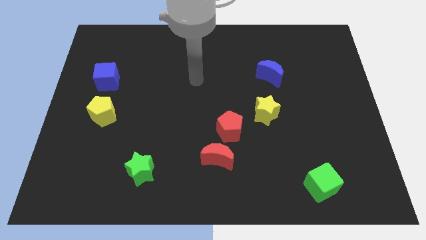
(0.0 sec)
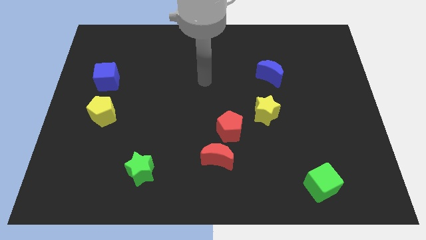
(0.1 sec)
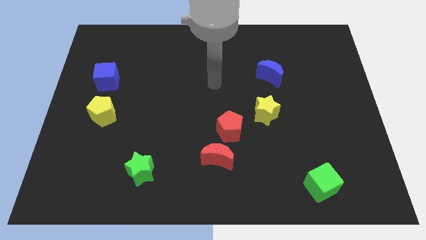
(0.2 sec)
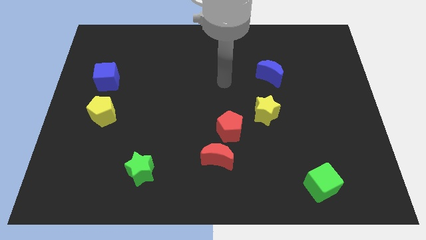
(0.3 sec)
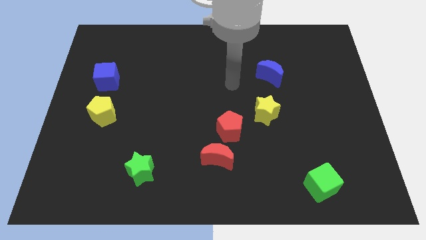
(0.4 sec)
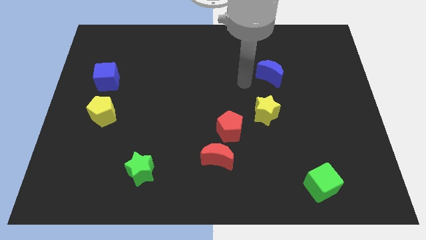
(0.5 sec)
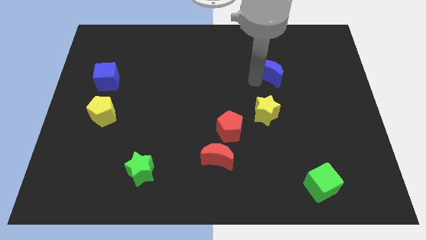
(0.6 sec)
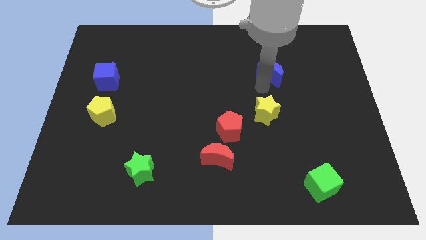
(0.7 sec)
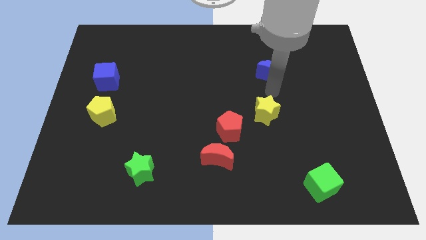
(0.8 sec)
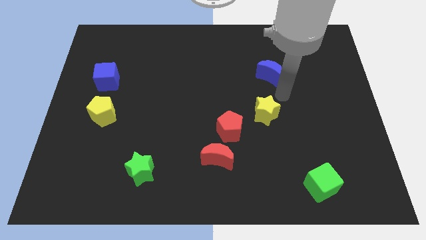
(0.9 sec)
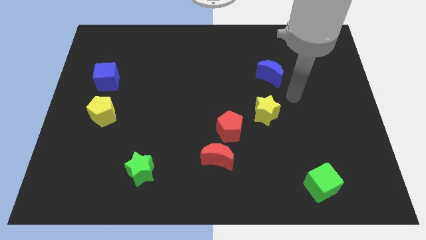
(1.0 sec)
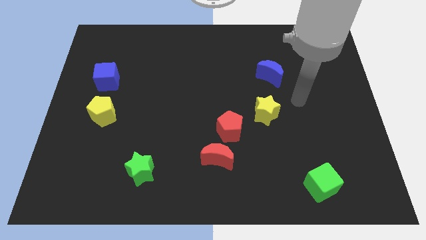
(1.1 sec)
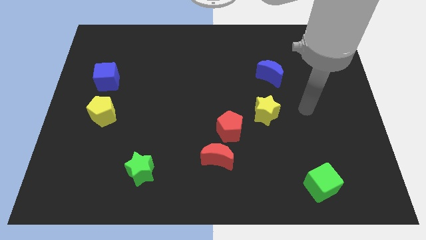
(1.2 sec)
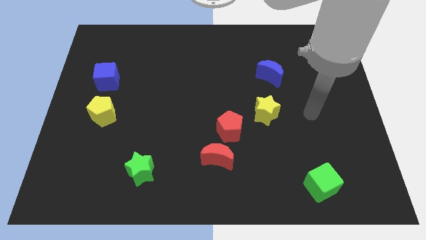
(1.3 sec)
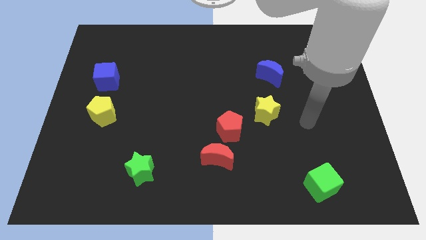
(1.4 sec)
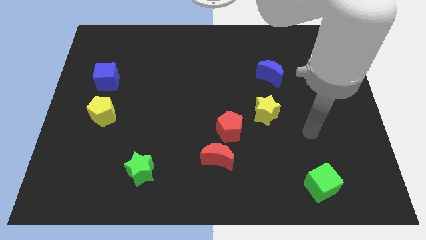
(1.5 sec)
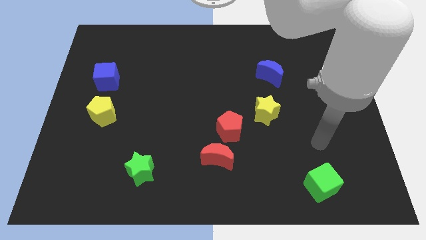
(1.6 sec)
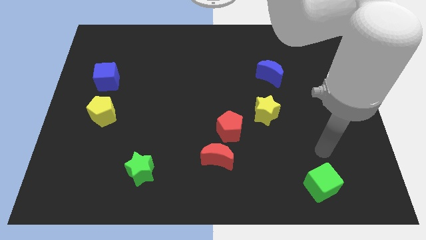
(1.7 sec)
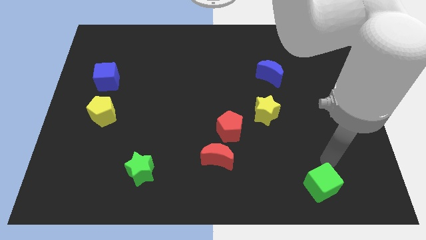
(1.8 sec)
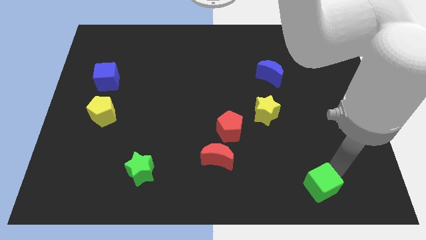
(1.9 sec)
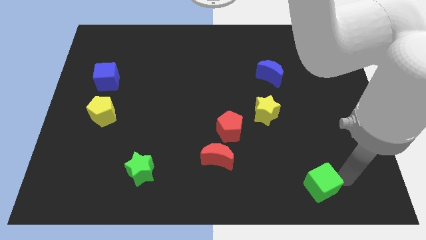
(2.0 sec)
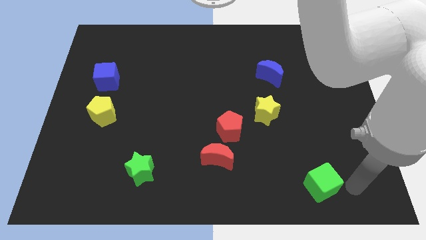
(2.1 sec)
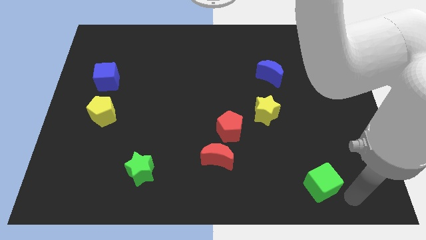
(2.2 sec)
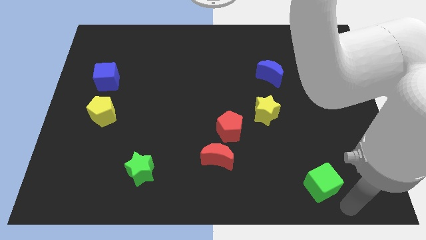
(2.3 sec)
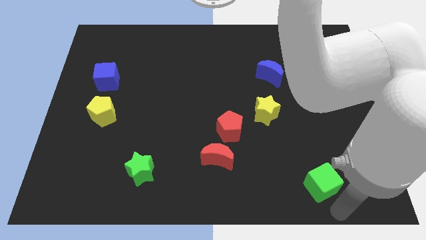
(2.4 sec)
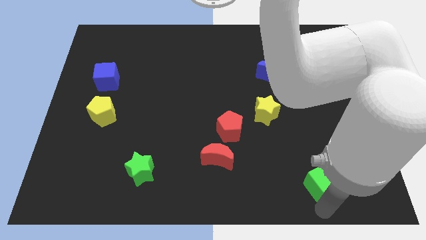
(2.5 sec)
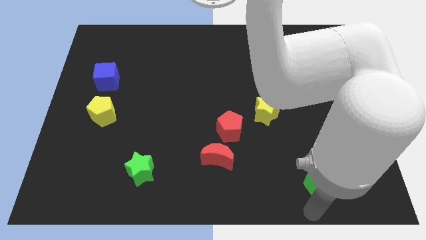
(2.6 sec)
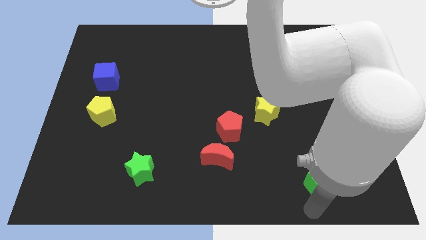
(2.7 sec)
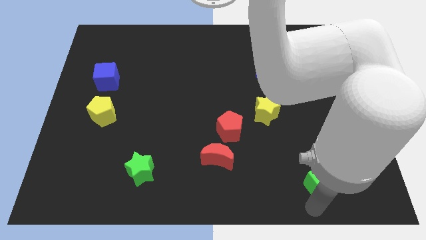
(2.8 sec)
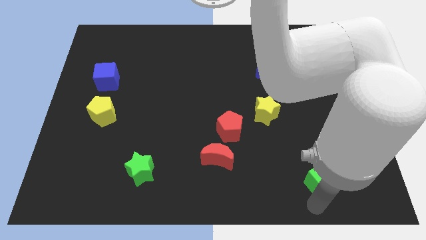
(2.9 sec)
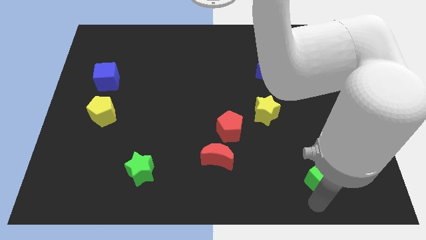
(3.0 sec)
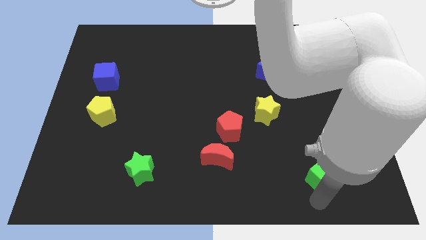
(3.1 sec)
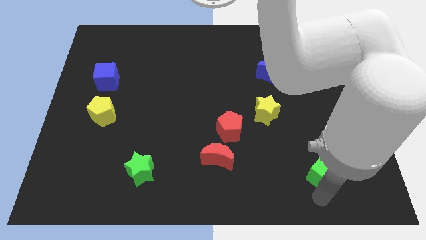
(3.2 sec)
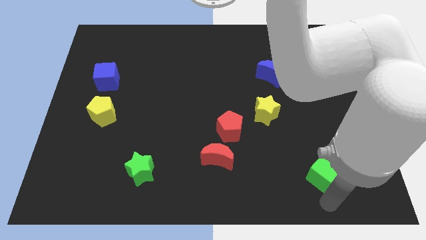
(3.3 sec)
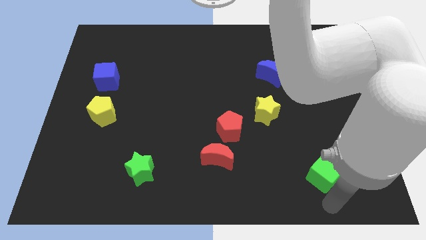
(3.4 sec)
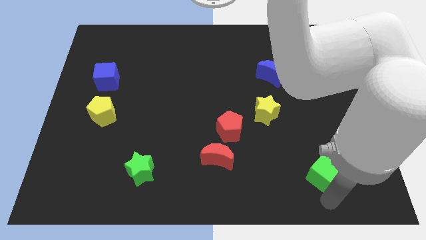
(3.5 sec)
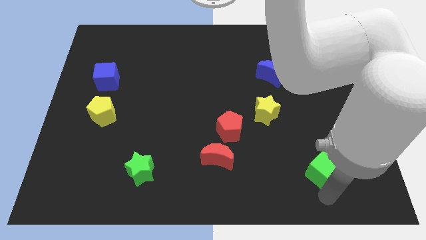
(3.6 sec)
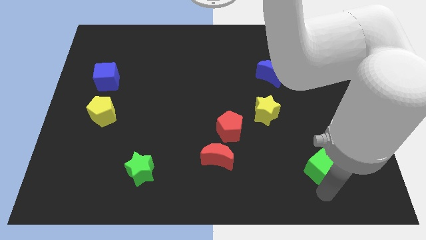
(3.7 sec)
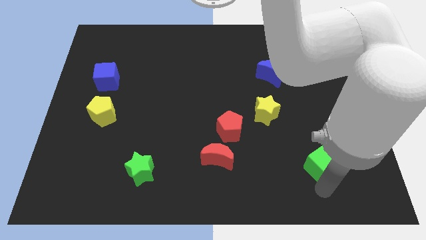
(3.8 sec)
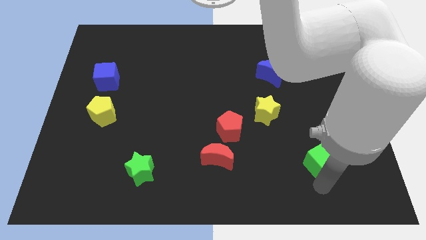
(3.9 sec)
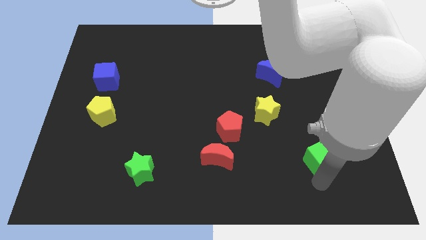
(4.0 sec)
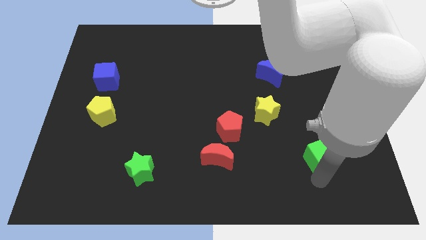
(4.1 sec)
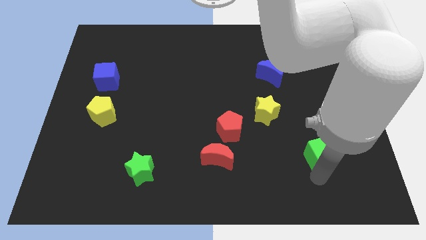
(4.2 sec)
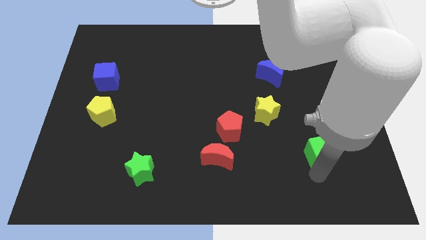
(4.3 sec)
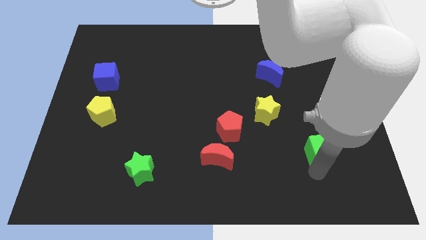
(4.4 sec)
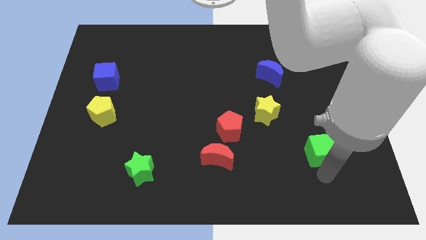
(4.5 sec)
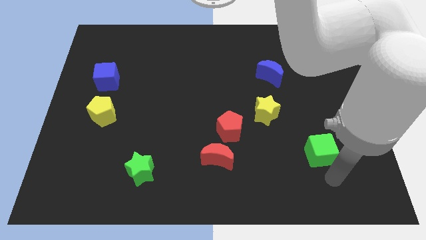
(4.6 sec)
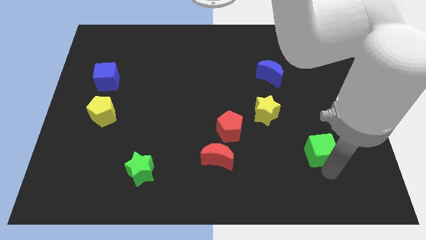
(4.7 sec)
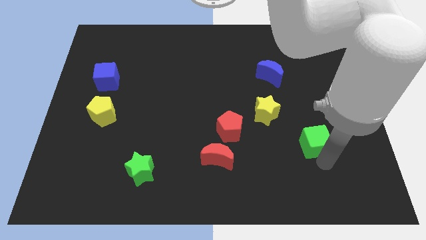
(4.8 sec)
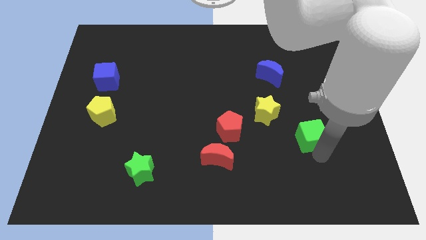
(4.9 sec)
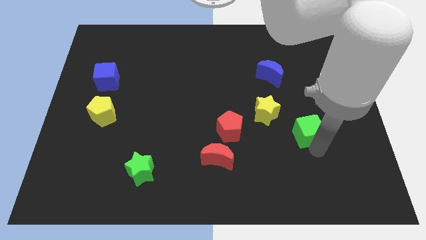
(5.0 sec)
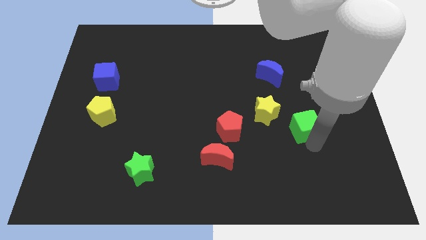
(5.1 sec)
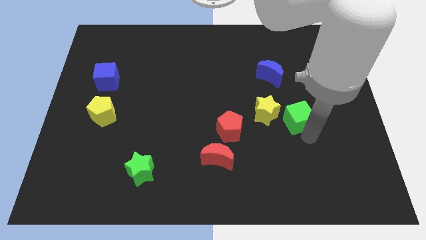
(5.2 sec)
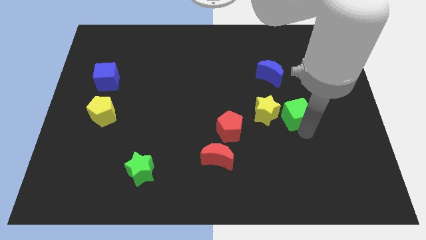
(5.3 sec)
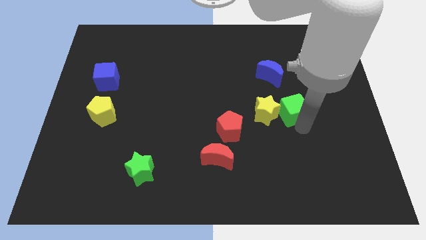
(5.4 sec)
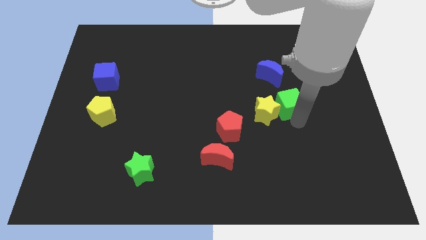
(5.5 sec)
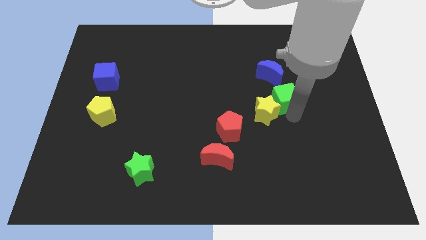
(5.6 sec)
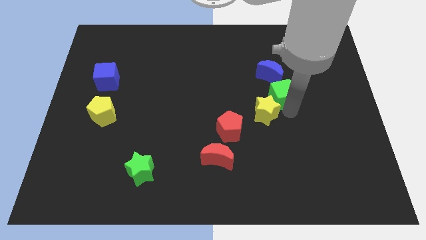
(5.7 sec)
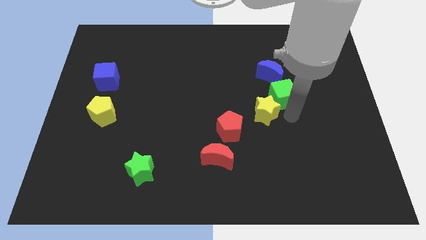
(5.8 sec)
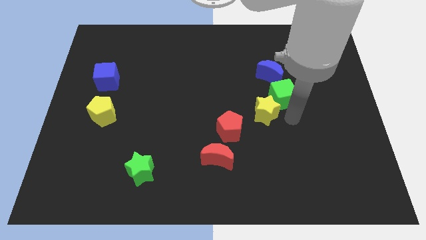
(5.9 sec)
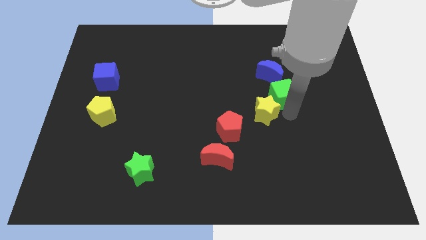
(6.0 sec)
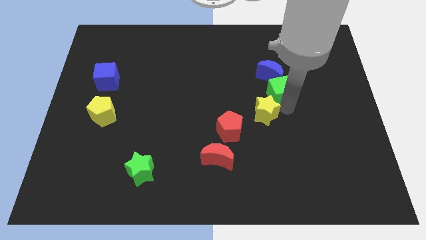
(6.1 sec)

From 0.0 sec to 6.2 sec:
put the green cube next to the blue moon
